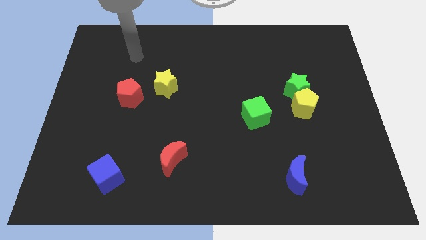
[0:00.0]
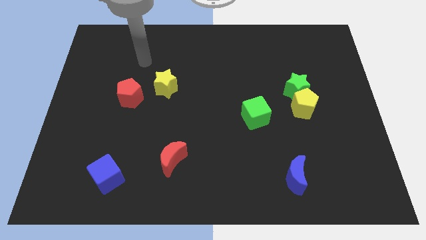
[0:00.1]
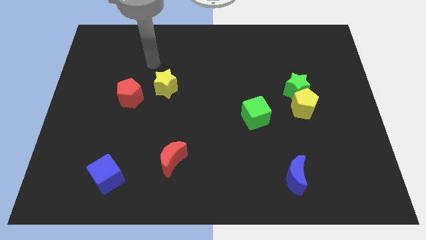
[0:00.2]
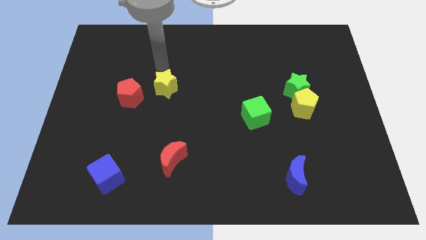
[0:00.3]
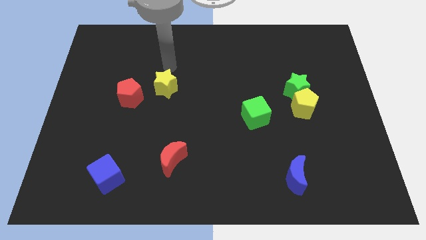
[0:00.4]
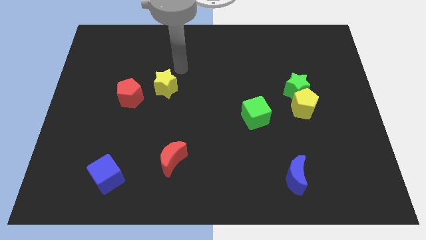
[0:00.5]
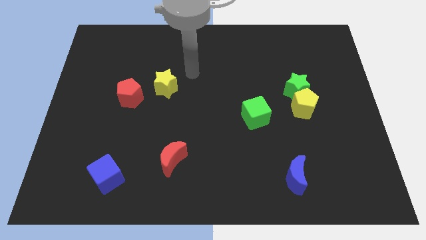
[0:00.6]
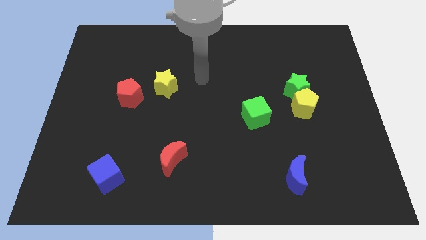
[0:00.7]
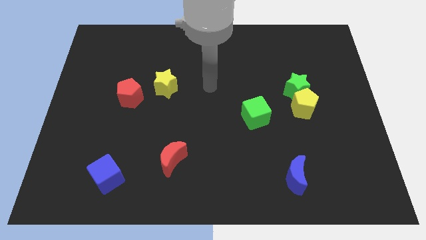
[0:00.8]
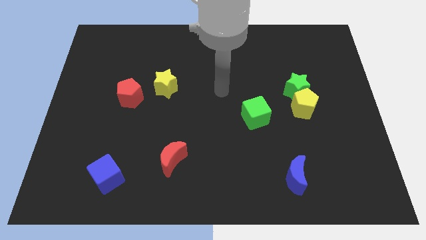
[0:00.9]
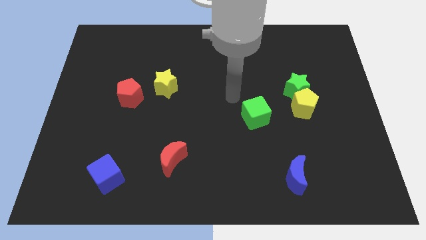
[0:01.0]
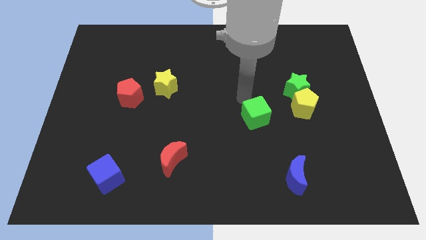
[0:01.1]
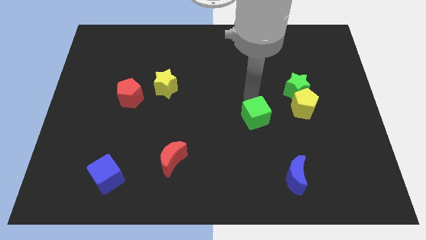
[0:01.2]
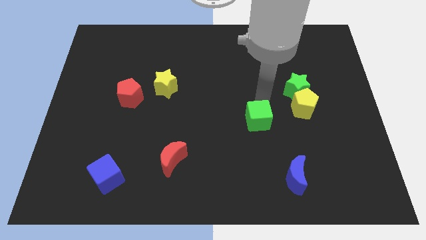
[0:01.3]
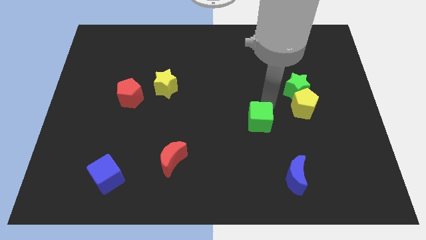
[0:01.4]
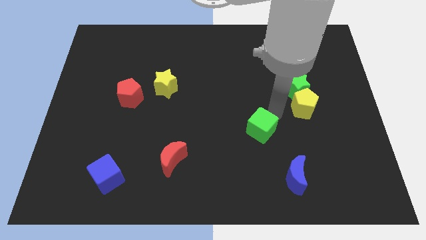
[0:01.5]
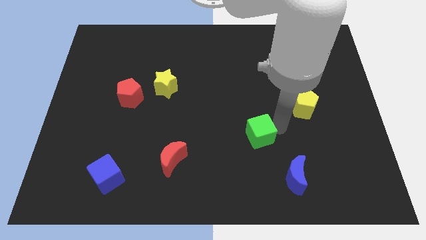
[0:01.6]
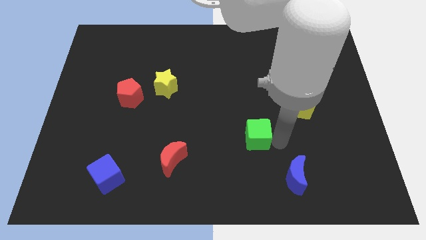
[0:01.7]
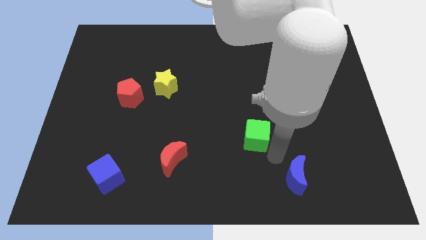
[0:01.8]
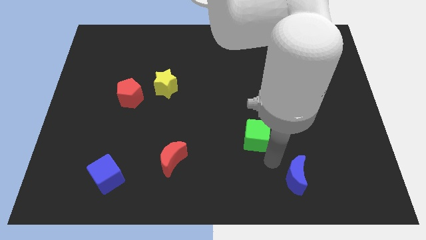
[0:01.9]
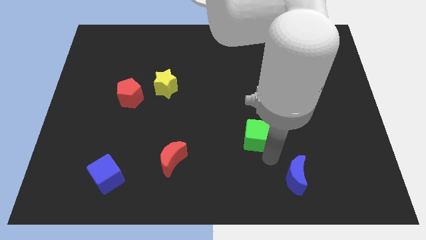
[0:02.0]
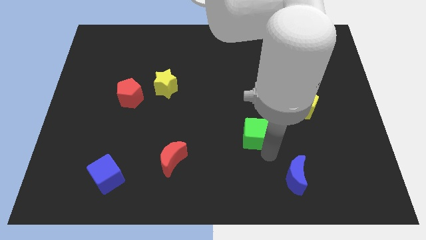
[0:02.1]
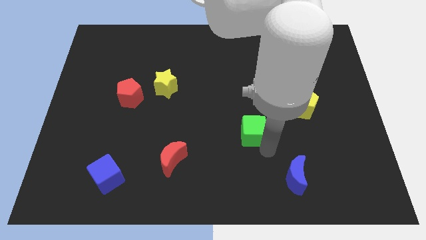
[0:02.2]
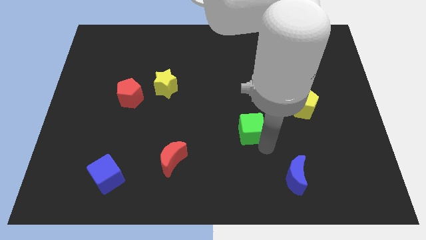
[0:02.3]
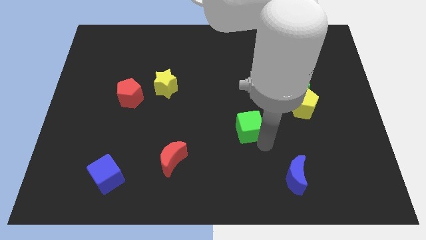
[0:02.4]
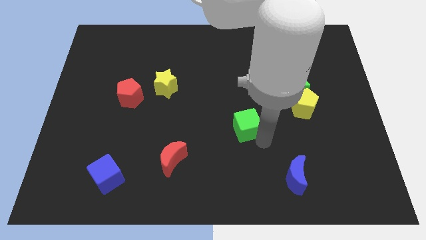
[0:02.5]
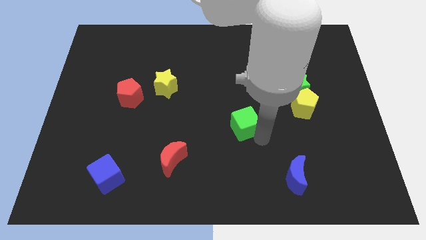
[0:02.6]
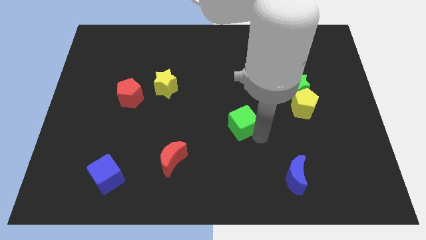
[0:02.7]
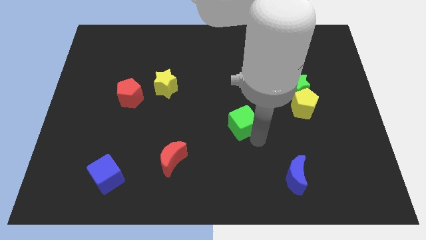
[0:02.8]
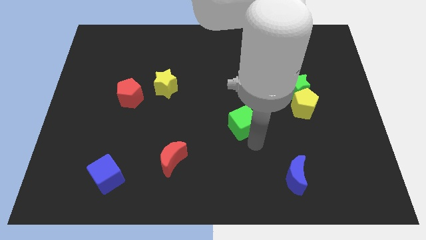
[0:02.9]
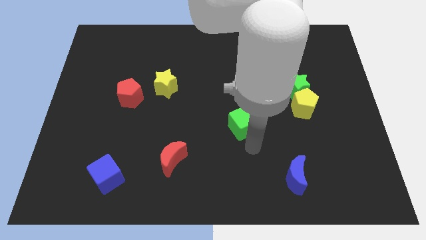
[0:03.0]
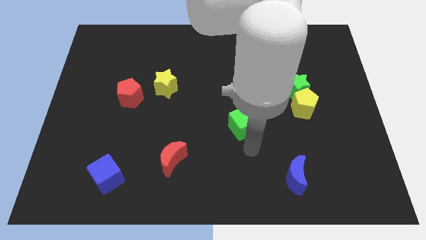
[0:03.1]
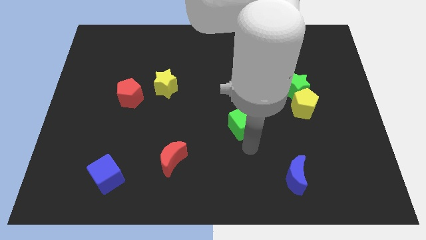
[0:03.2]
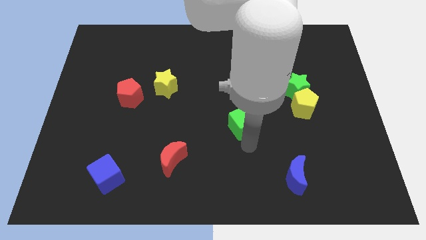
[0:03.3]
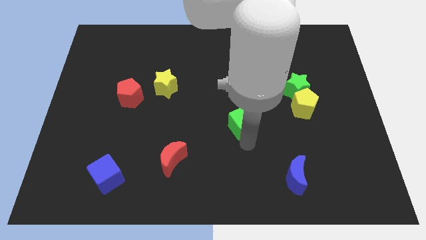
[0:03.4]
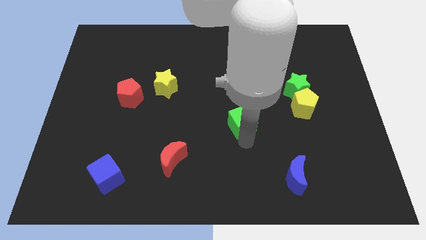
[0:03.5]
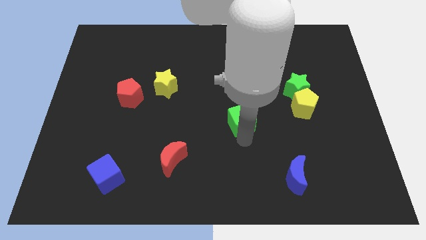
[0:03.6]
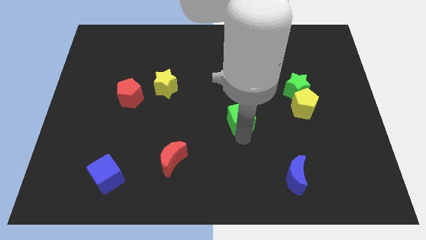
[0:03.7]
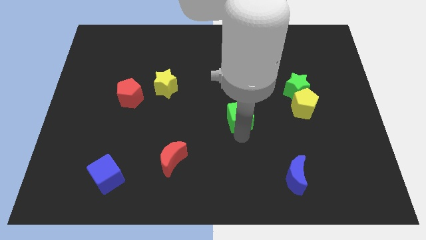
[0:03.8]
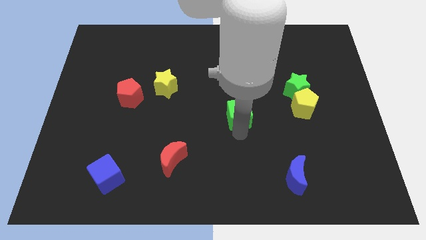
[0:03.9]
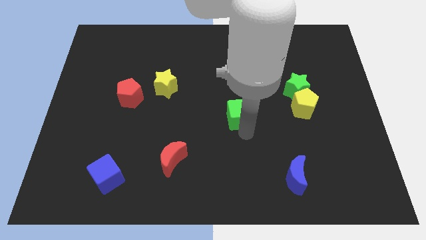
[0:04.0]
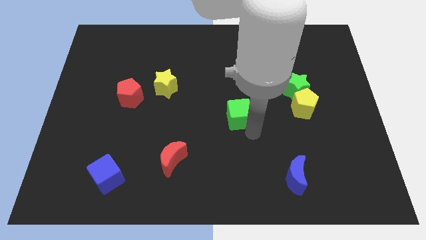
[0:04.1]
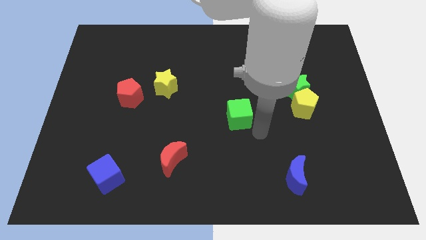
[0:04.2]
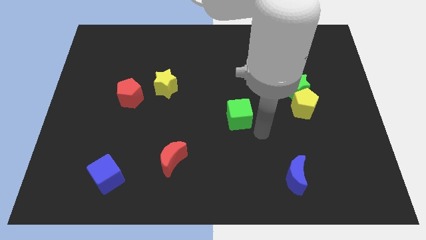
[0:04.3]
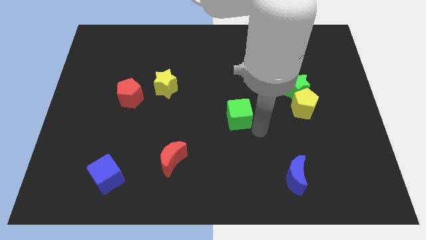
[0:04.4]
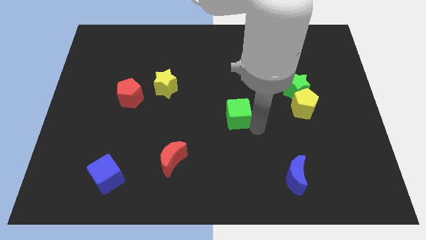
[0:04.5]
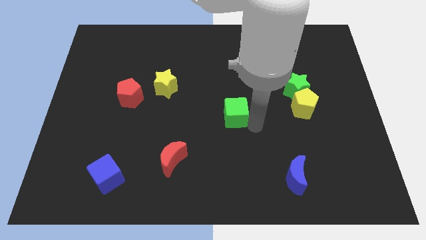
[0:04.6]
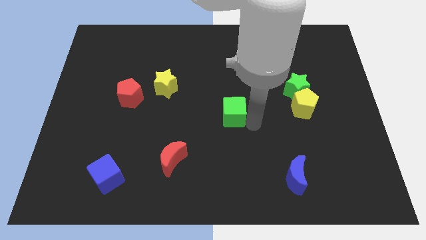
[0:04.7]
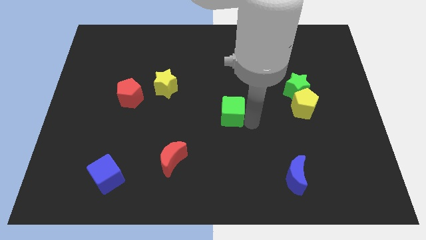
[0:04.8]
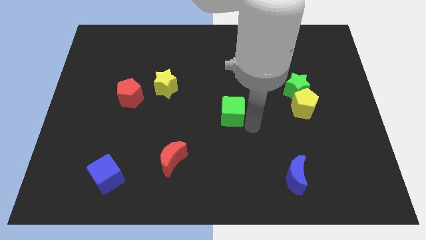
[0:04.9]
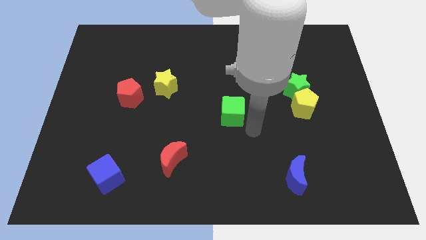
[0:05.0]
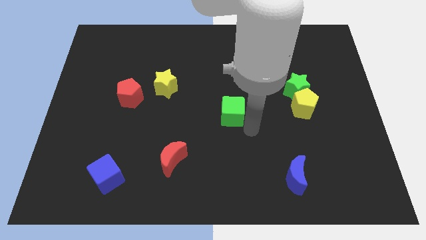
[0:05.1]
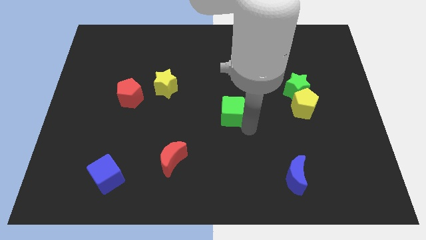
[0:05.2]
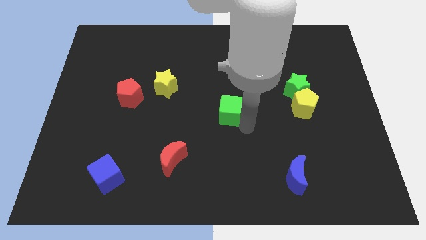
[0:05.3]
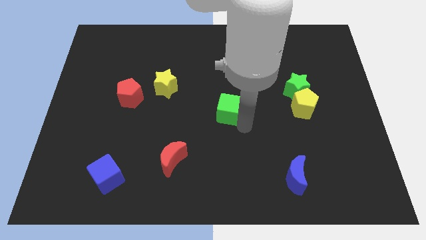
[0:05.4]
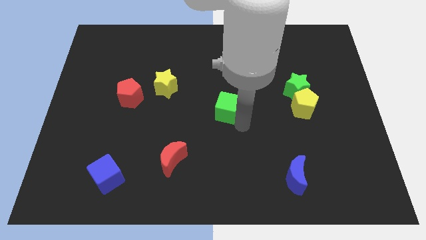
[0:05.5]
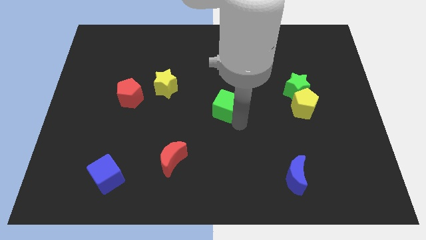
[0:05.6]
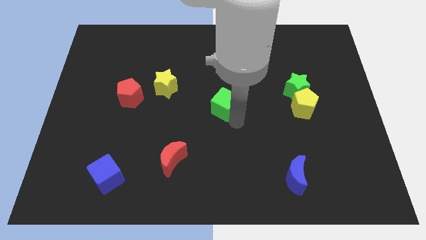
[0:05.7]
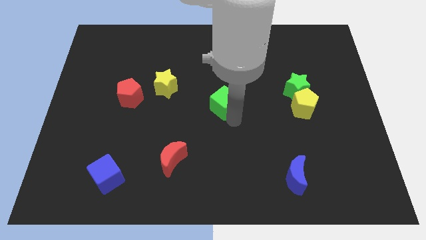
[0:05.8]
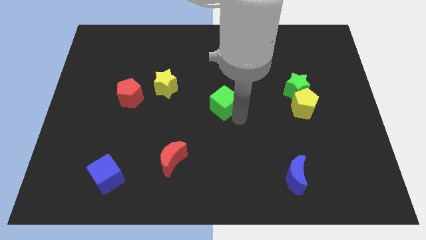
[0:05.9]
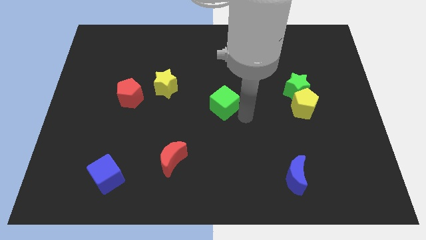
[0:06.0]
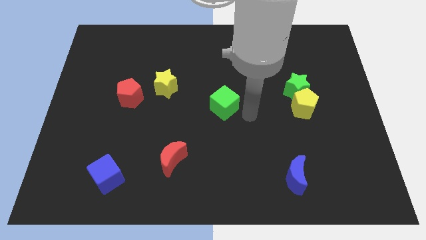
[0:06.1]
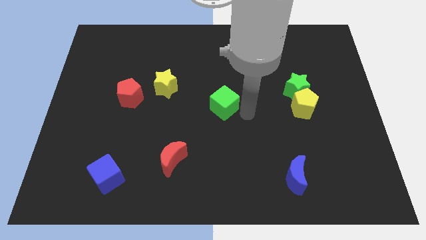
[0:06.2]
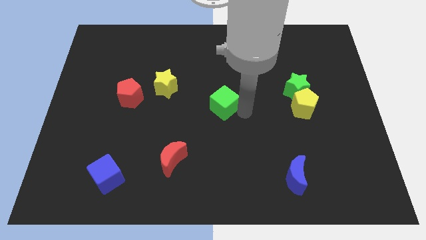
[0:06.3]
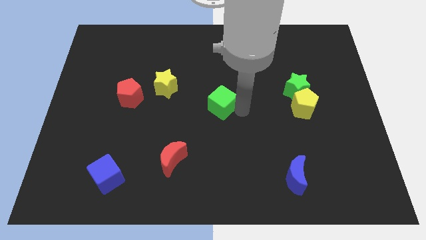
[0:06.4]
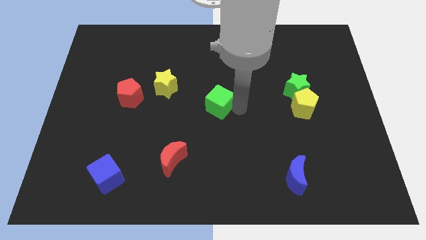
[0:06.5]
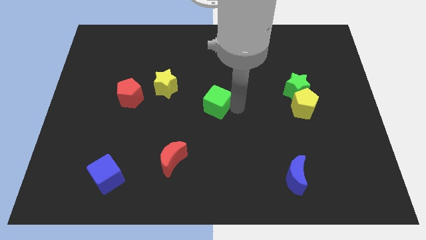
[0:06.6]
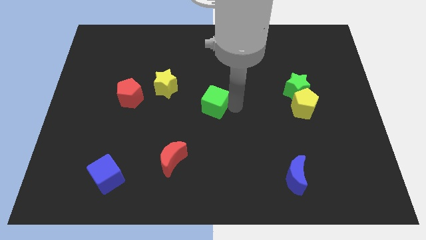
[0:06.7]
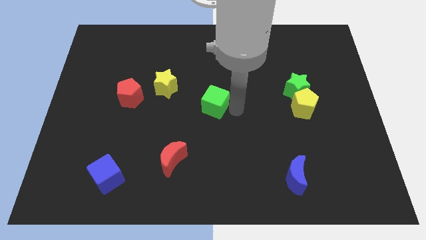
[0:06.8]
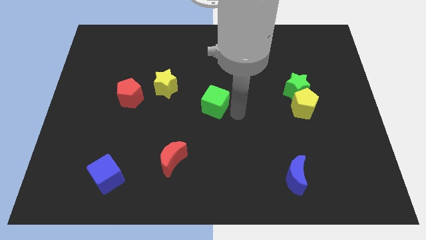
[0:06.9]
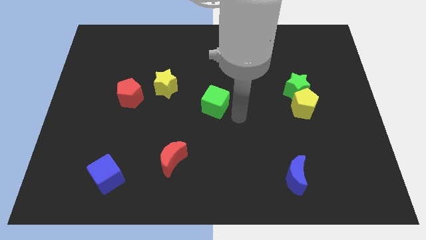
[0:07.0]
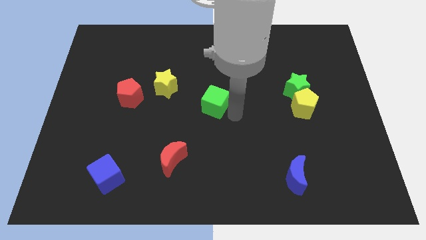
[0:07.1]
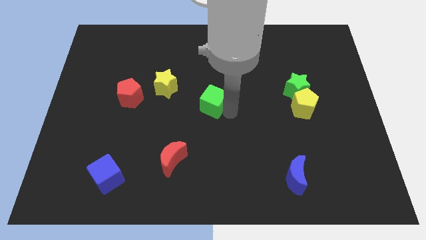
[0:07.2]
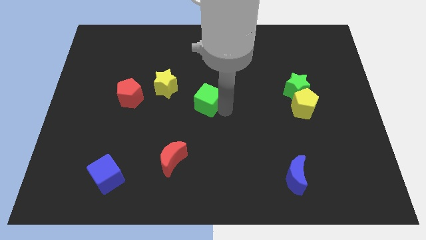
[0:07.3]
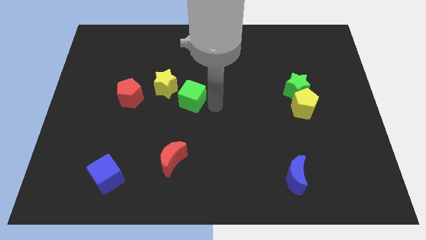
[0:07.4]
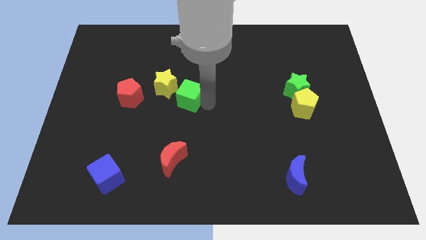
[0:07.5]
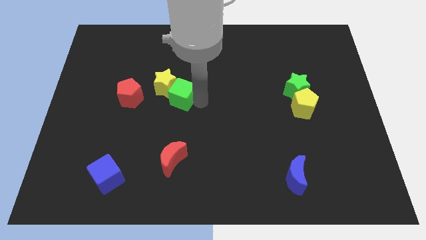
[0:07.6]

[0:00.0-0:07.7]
push the green cube to the yellow star
